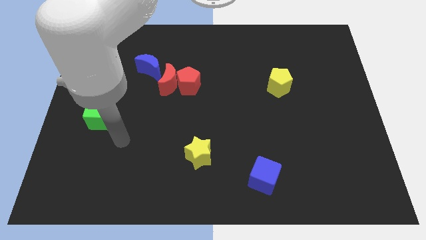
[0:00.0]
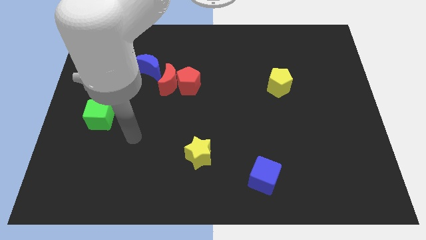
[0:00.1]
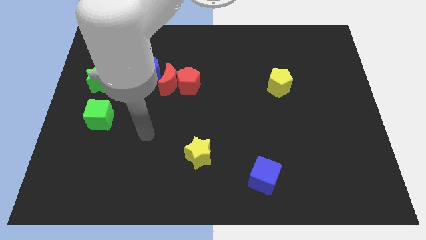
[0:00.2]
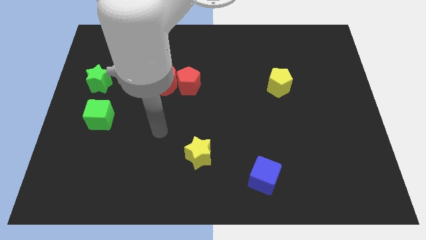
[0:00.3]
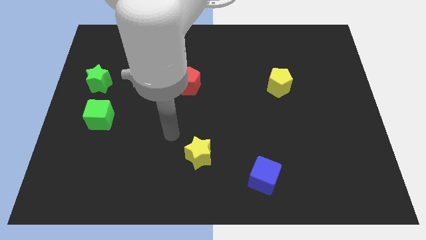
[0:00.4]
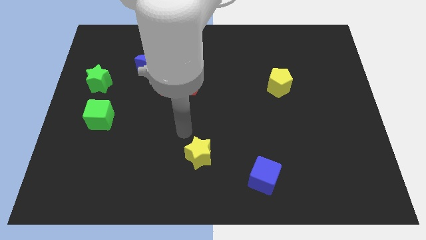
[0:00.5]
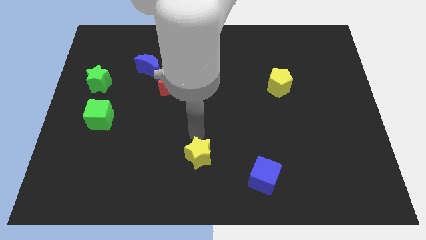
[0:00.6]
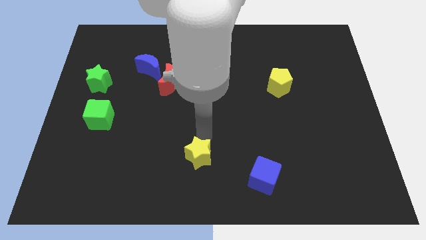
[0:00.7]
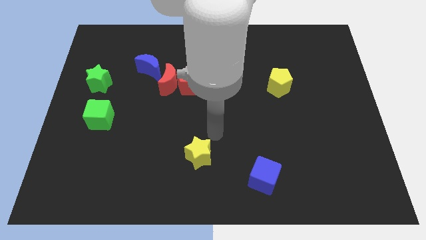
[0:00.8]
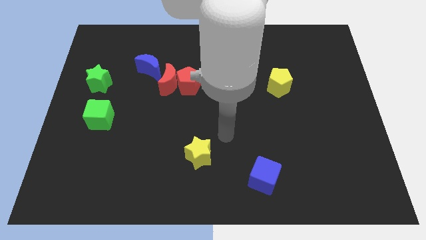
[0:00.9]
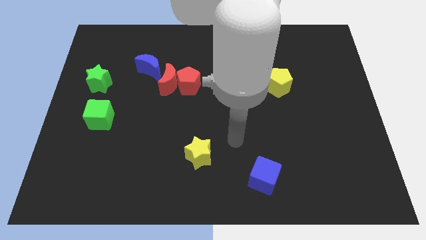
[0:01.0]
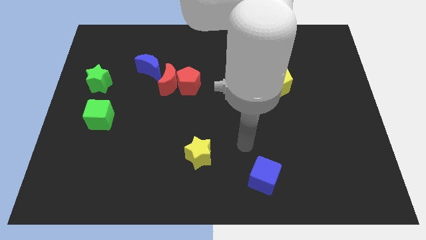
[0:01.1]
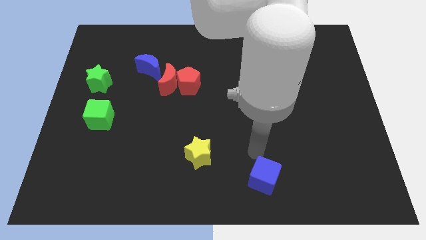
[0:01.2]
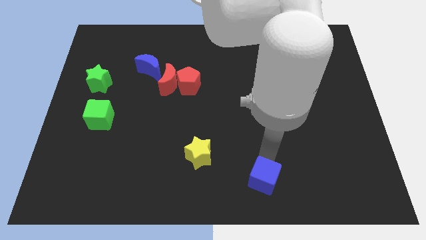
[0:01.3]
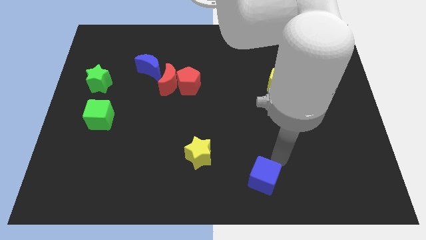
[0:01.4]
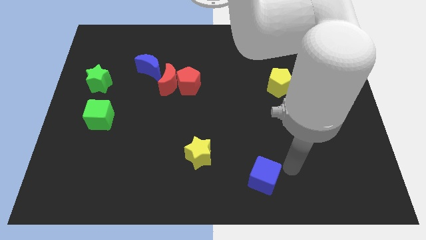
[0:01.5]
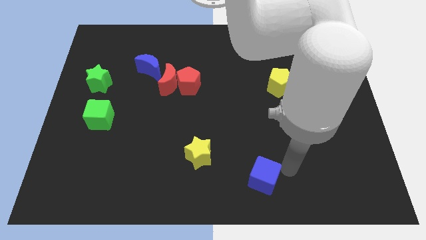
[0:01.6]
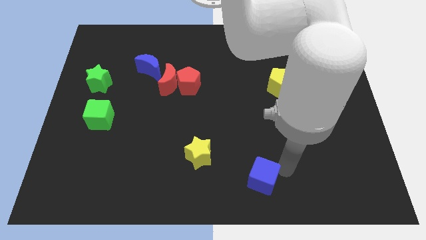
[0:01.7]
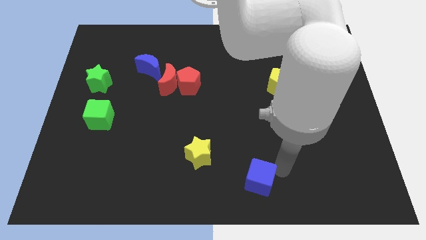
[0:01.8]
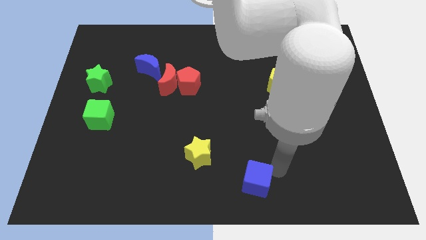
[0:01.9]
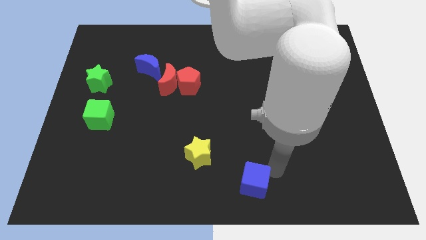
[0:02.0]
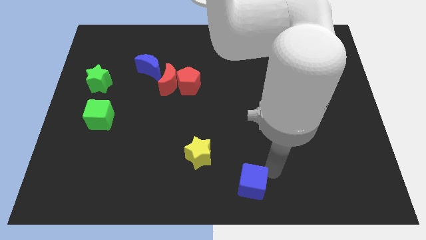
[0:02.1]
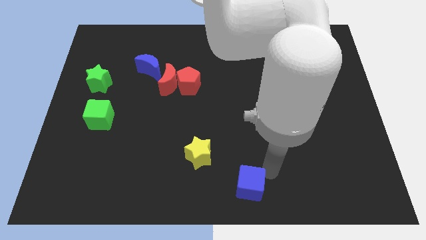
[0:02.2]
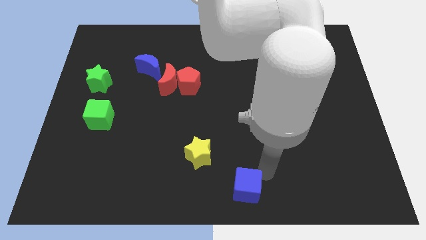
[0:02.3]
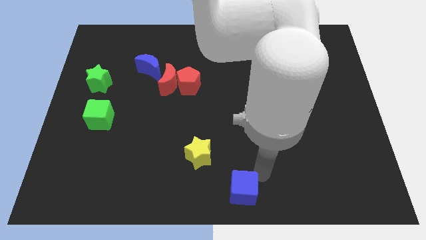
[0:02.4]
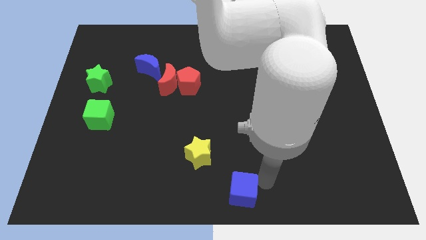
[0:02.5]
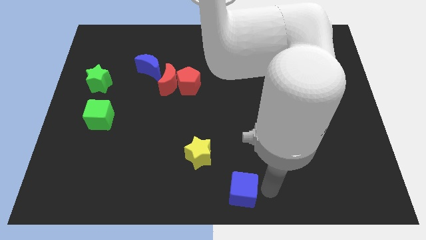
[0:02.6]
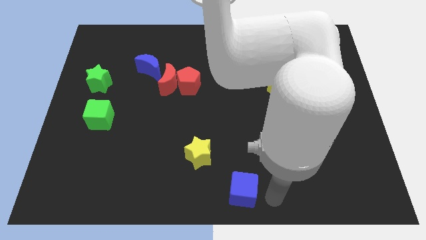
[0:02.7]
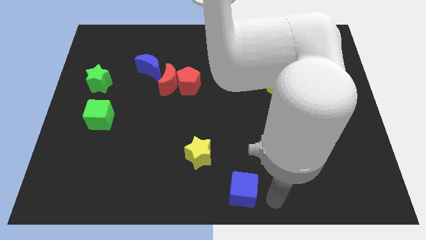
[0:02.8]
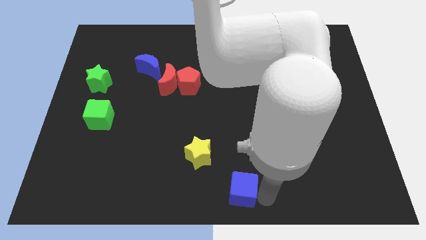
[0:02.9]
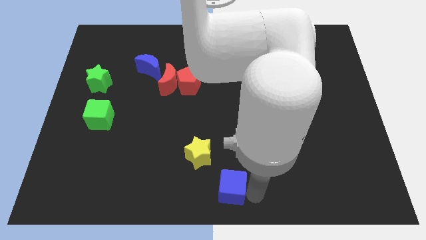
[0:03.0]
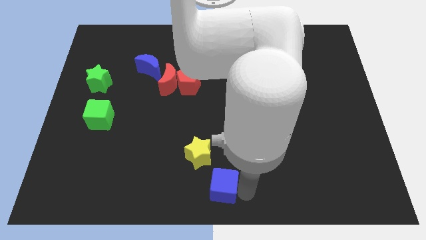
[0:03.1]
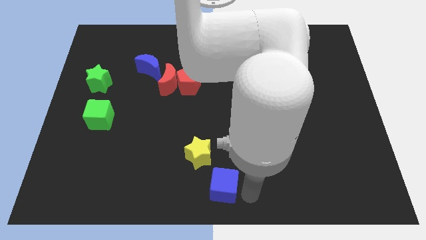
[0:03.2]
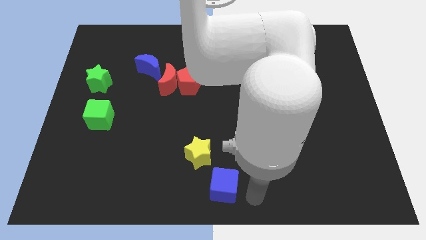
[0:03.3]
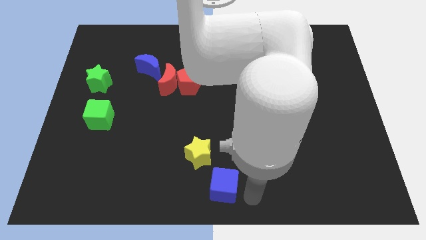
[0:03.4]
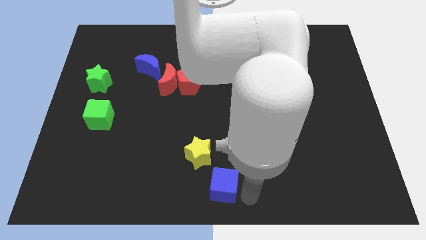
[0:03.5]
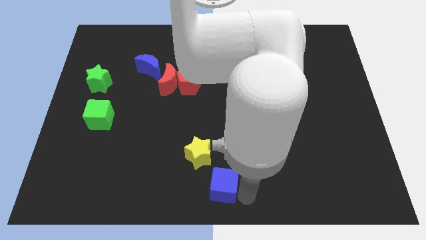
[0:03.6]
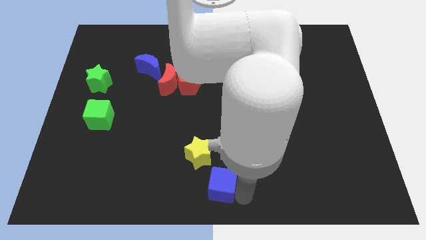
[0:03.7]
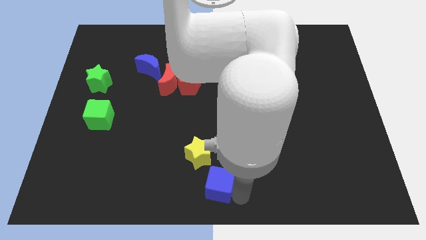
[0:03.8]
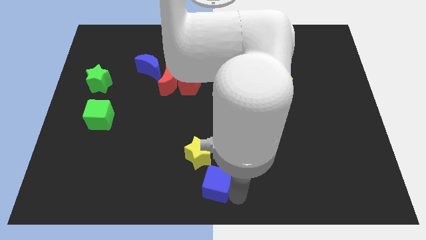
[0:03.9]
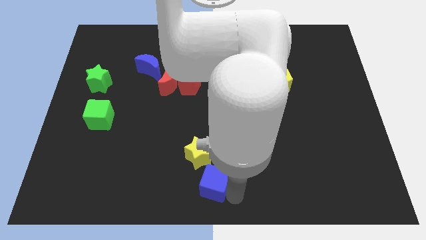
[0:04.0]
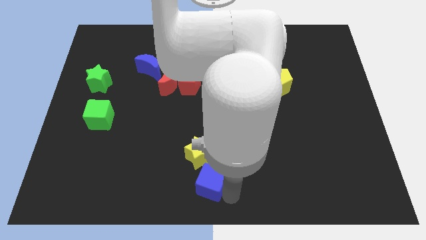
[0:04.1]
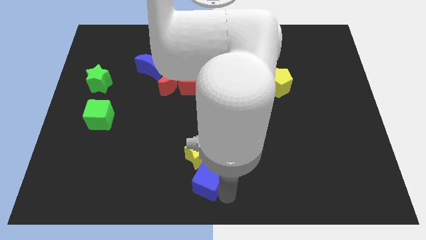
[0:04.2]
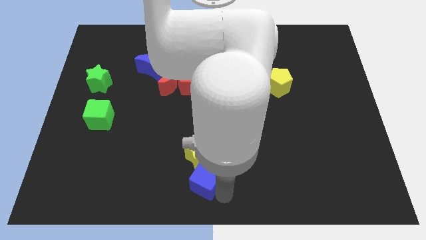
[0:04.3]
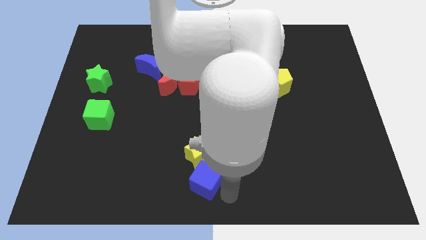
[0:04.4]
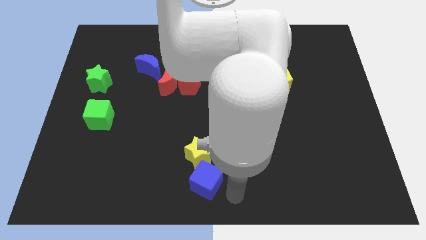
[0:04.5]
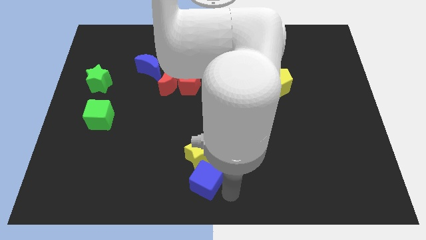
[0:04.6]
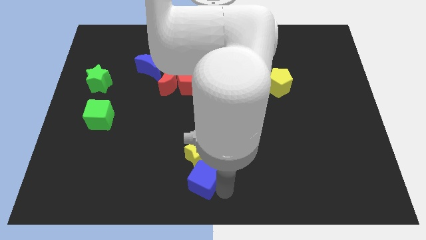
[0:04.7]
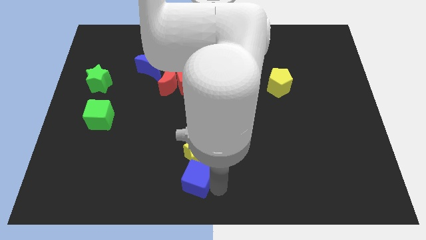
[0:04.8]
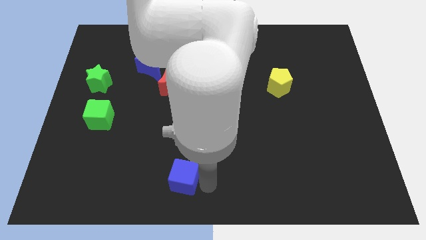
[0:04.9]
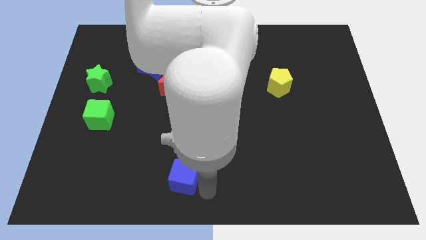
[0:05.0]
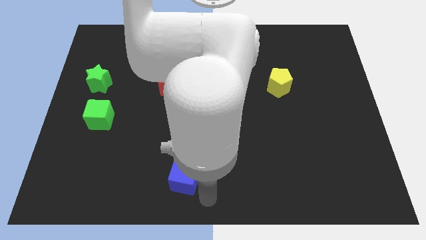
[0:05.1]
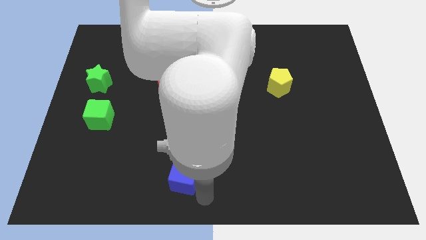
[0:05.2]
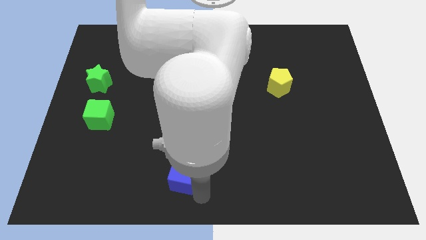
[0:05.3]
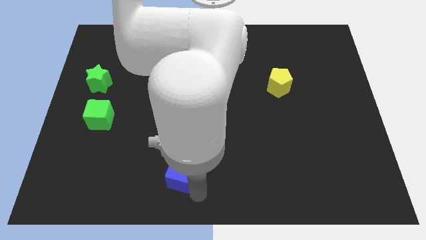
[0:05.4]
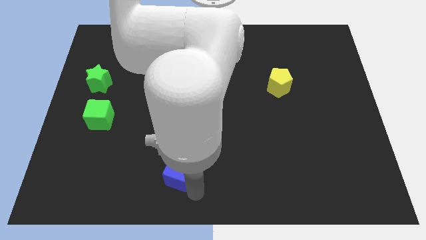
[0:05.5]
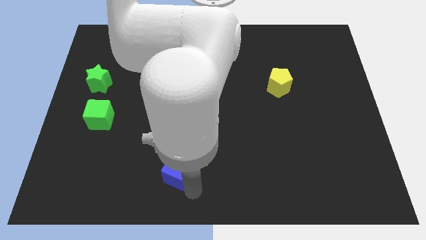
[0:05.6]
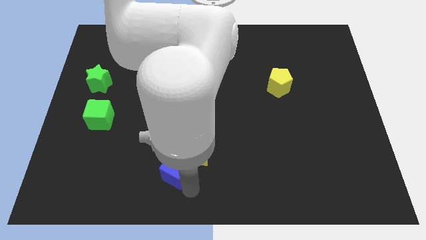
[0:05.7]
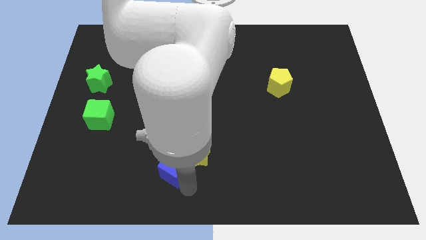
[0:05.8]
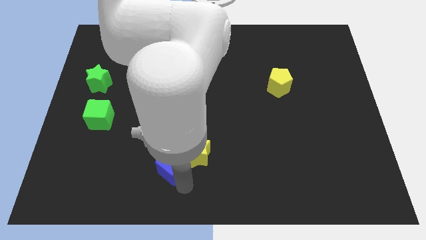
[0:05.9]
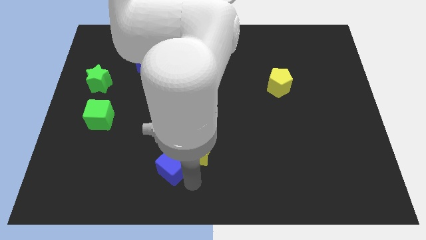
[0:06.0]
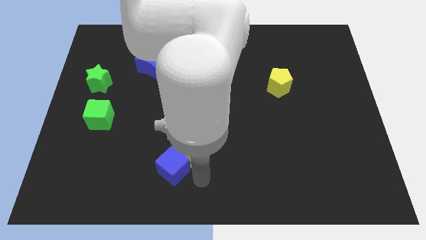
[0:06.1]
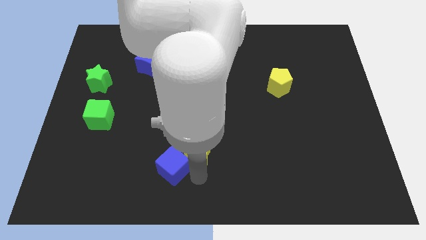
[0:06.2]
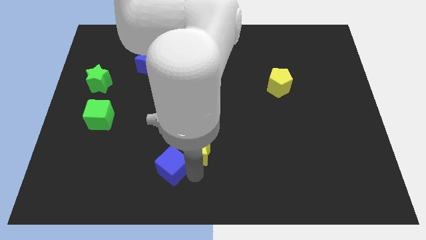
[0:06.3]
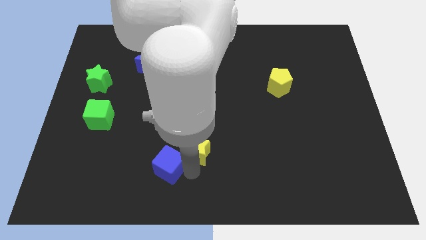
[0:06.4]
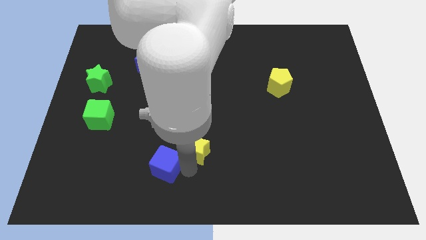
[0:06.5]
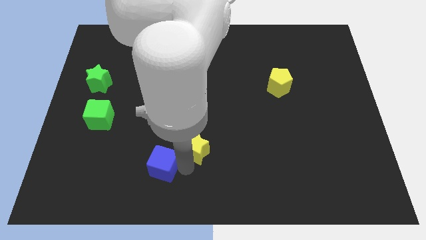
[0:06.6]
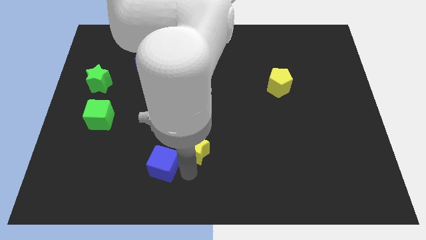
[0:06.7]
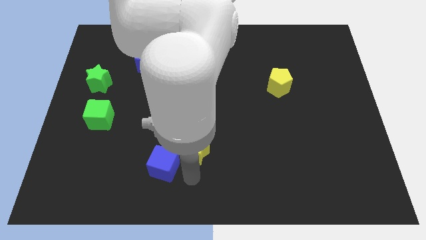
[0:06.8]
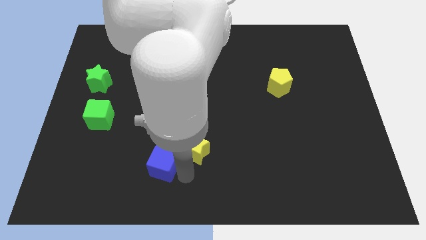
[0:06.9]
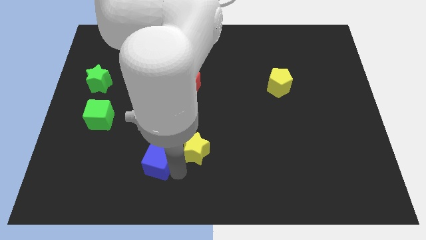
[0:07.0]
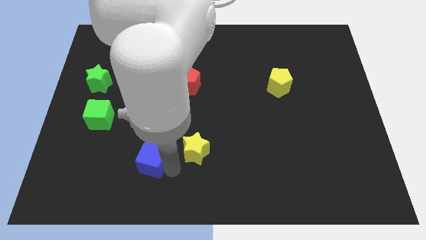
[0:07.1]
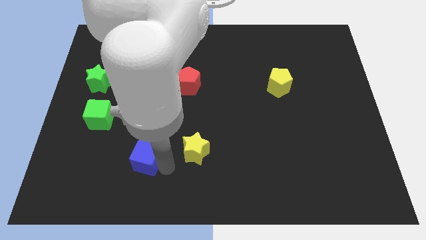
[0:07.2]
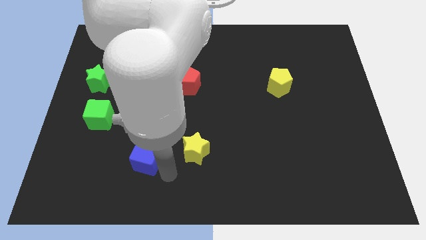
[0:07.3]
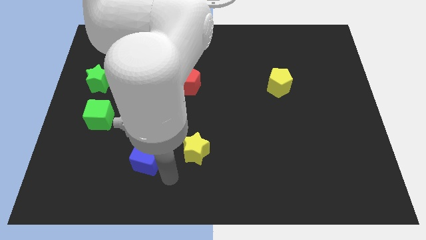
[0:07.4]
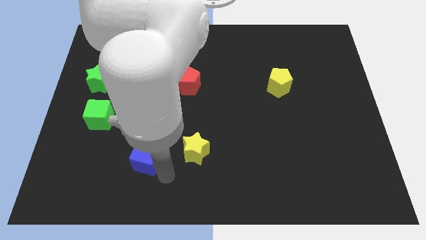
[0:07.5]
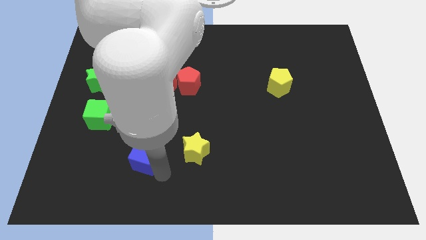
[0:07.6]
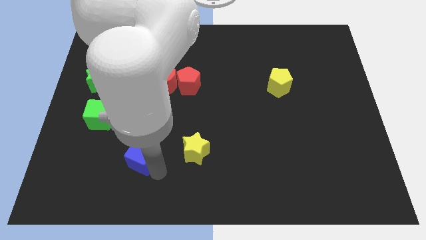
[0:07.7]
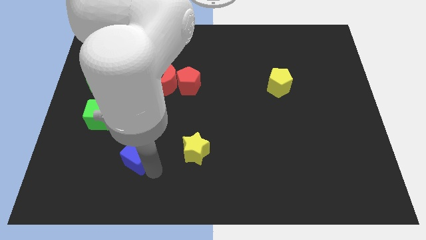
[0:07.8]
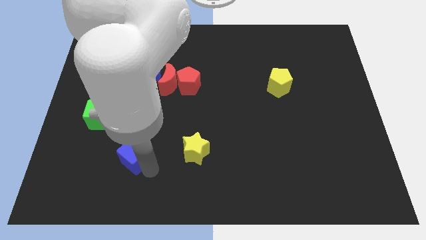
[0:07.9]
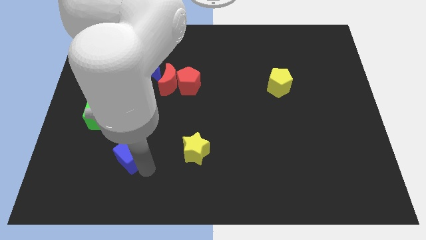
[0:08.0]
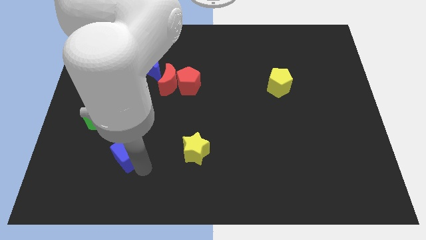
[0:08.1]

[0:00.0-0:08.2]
slide the blue cube diagonally down and to the right of the green cube
